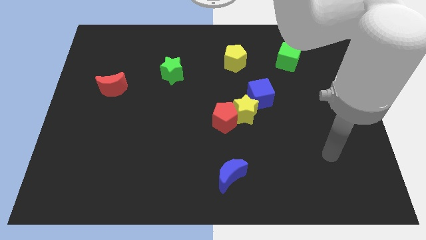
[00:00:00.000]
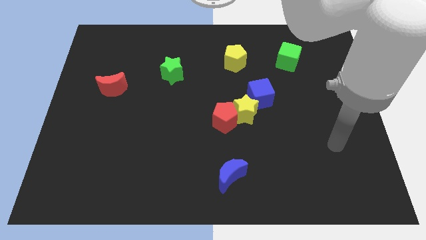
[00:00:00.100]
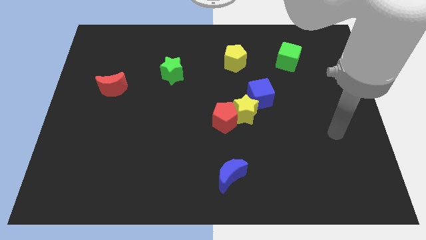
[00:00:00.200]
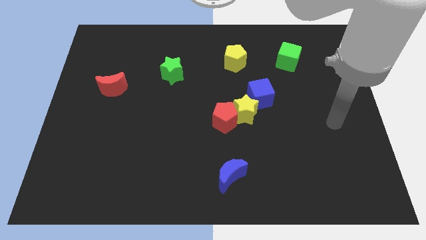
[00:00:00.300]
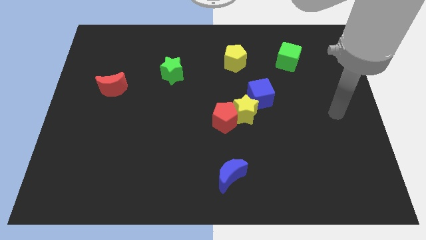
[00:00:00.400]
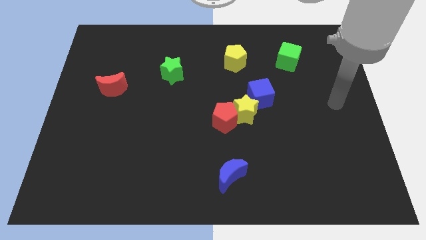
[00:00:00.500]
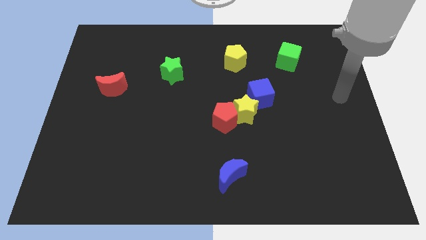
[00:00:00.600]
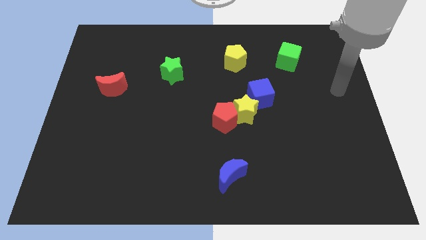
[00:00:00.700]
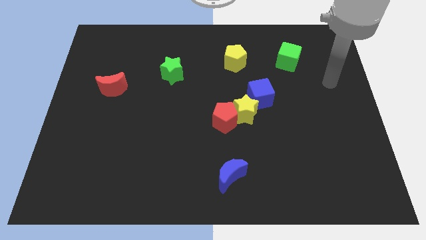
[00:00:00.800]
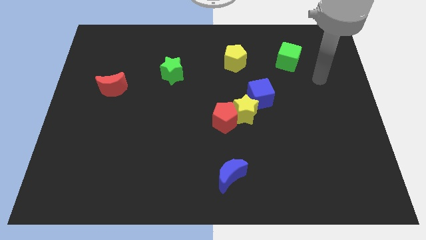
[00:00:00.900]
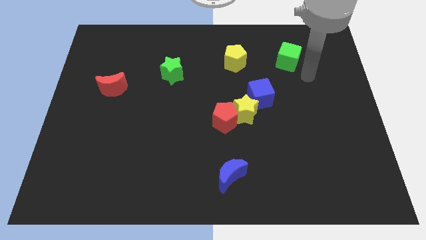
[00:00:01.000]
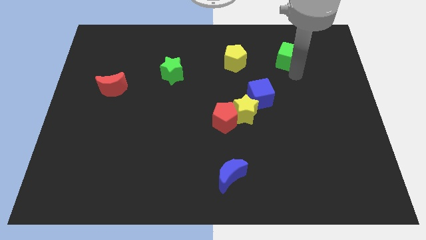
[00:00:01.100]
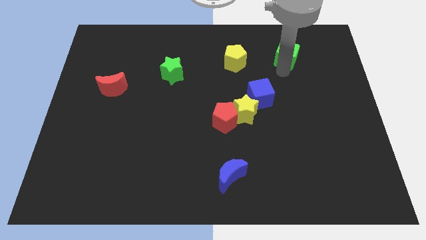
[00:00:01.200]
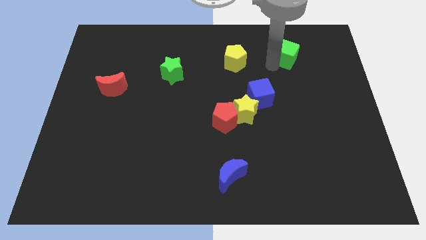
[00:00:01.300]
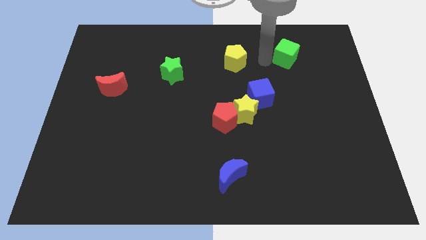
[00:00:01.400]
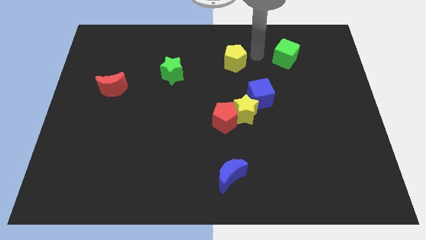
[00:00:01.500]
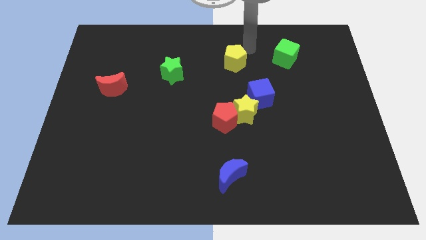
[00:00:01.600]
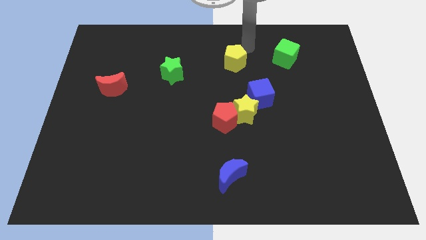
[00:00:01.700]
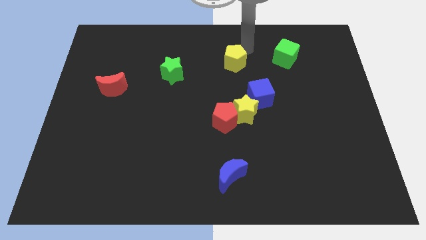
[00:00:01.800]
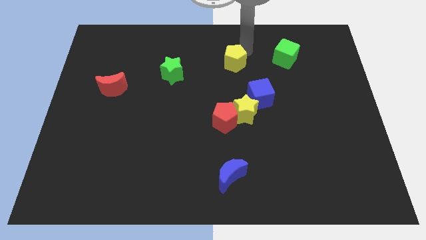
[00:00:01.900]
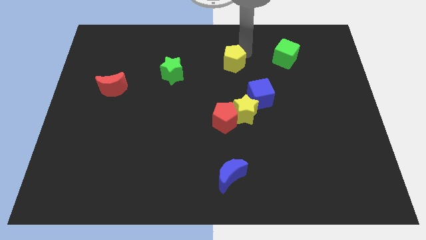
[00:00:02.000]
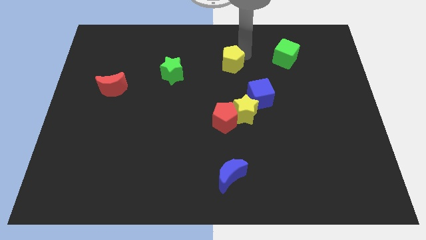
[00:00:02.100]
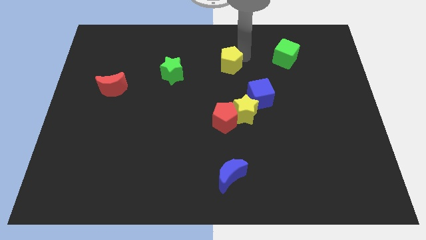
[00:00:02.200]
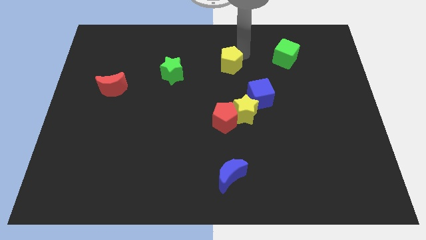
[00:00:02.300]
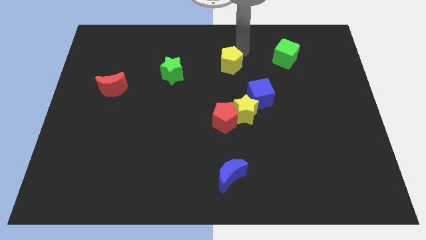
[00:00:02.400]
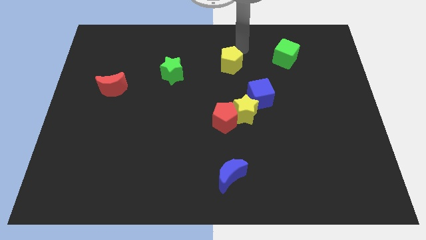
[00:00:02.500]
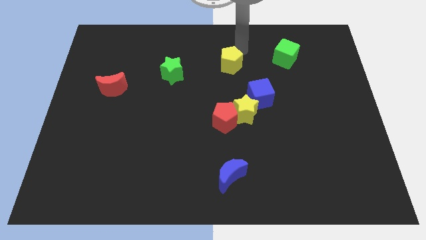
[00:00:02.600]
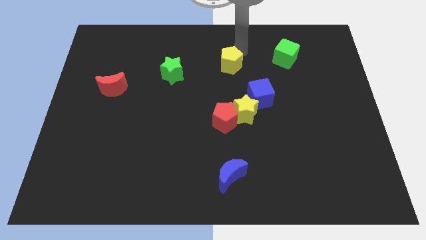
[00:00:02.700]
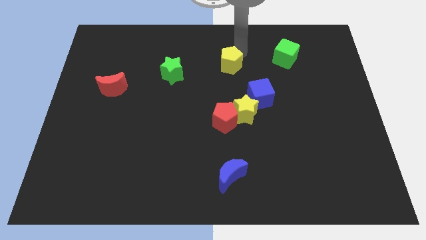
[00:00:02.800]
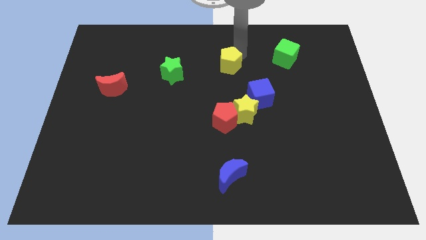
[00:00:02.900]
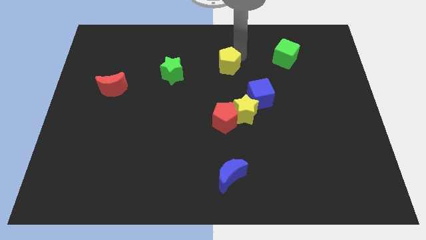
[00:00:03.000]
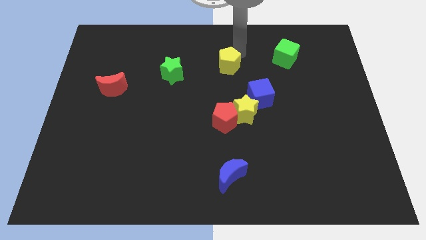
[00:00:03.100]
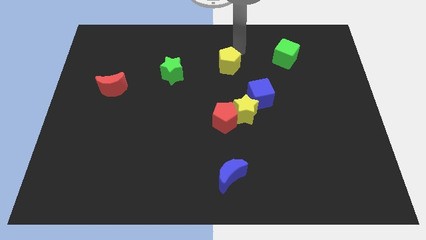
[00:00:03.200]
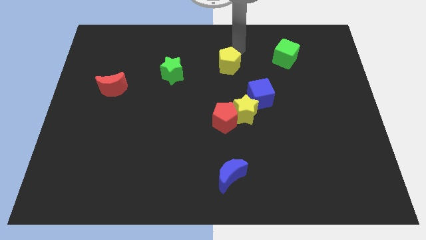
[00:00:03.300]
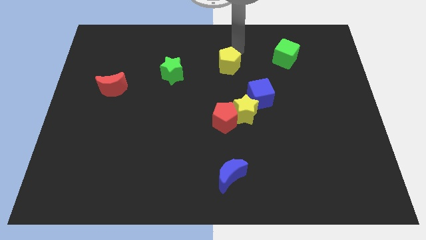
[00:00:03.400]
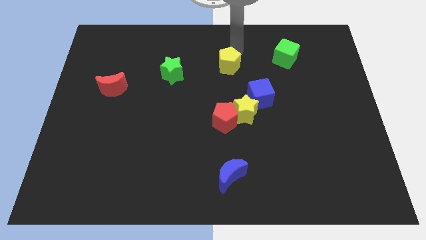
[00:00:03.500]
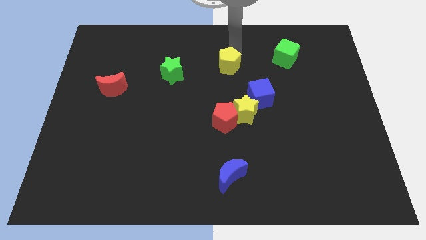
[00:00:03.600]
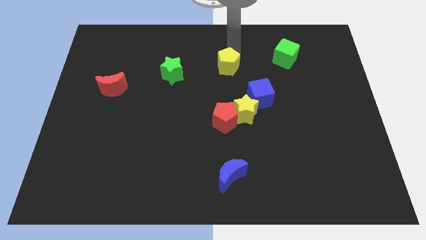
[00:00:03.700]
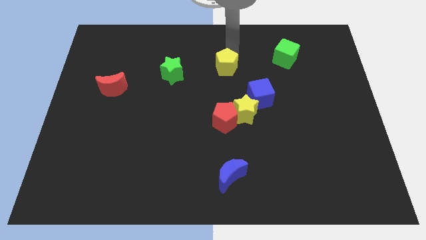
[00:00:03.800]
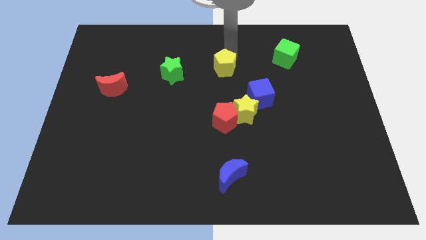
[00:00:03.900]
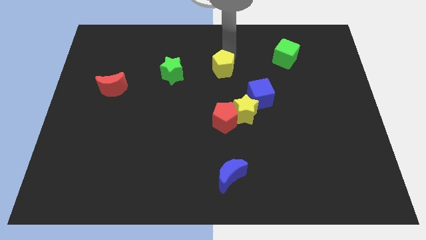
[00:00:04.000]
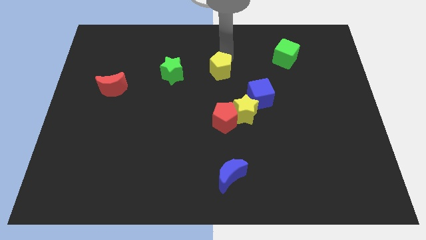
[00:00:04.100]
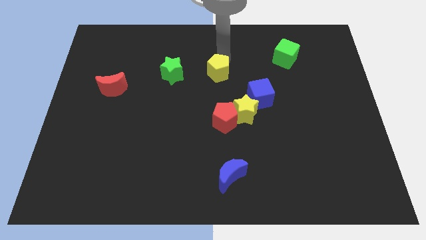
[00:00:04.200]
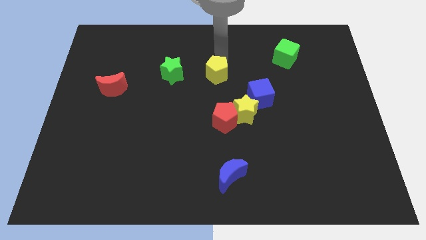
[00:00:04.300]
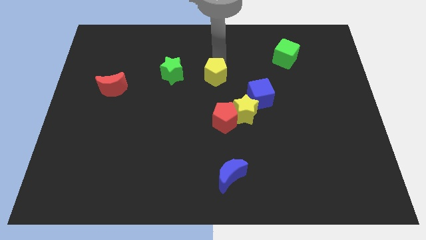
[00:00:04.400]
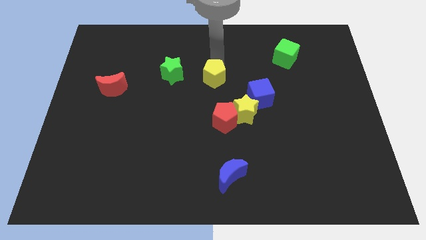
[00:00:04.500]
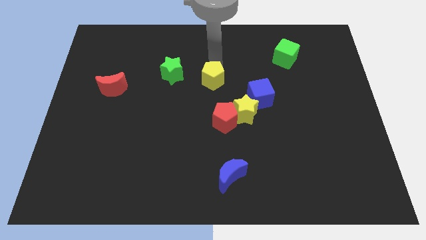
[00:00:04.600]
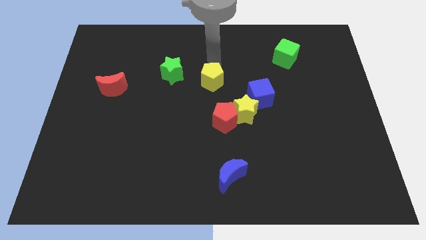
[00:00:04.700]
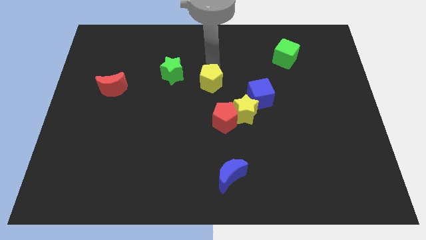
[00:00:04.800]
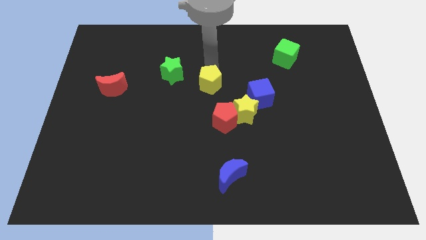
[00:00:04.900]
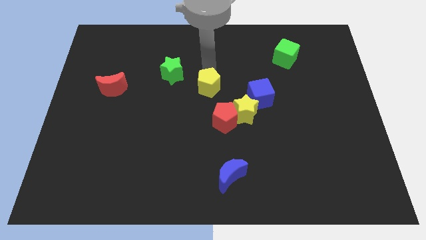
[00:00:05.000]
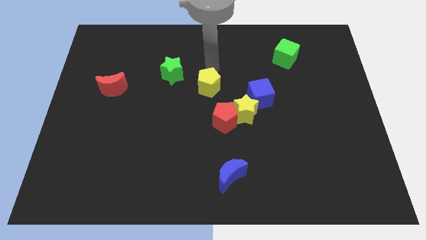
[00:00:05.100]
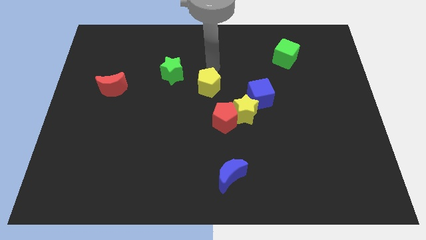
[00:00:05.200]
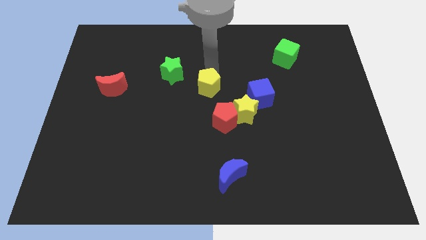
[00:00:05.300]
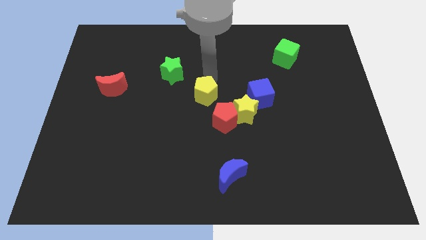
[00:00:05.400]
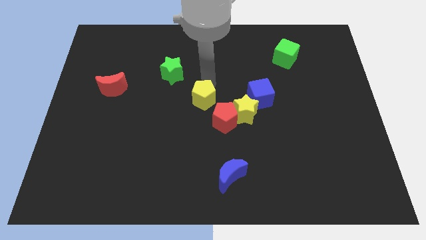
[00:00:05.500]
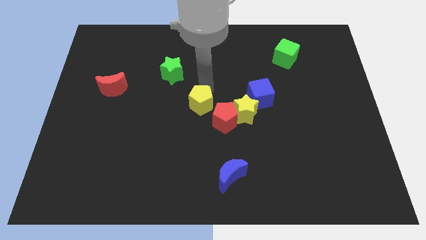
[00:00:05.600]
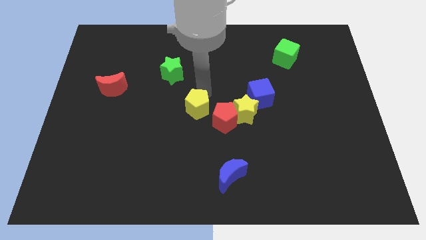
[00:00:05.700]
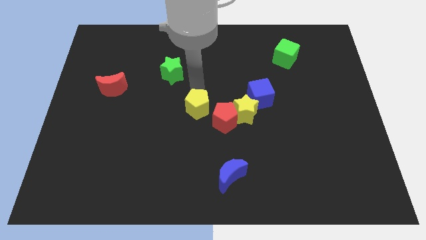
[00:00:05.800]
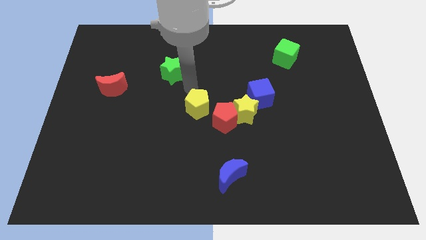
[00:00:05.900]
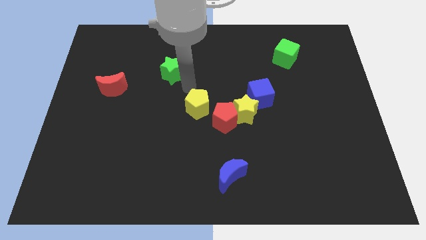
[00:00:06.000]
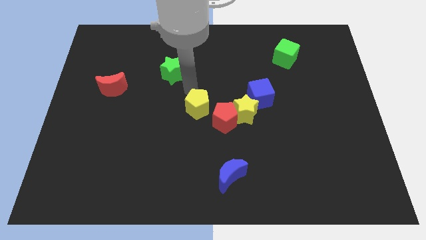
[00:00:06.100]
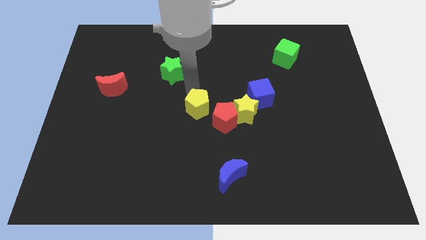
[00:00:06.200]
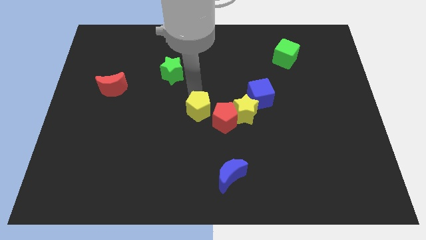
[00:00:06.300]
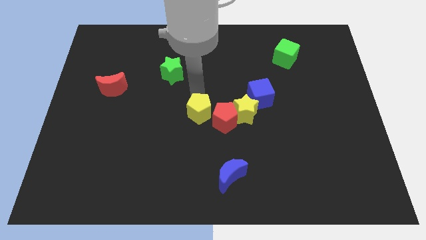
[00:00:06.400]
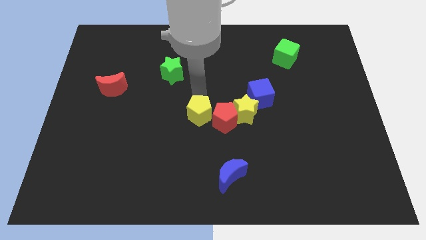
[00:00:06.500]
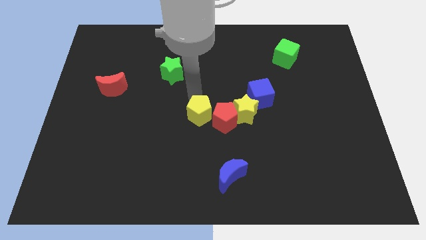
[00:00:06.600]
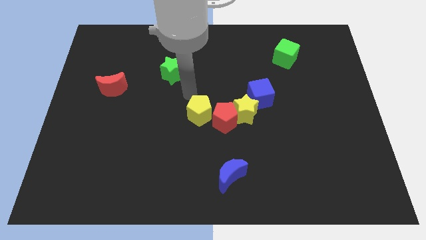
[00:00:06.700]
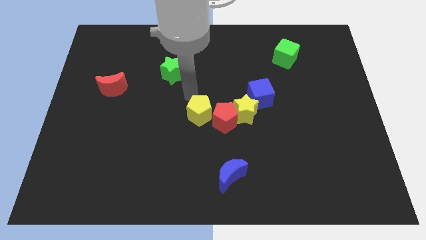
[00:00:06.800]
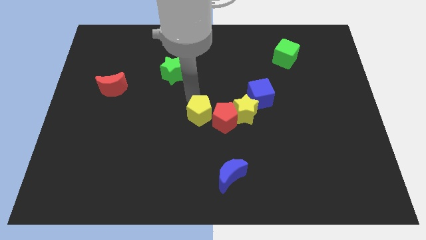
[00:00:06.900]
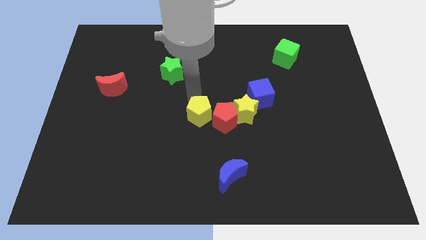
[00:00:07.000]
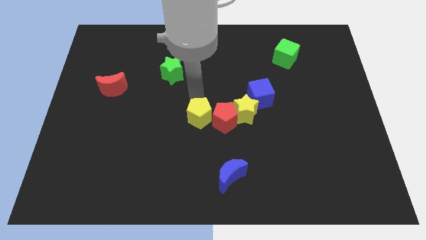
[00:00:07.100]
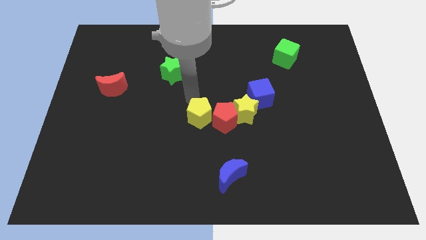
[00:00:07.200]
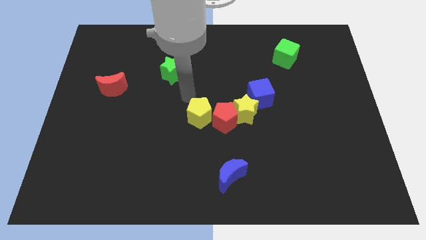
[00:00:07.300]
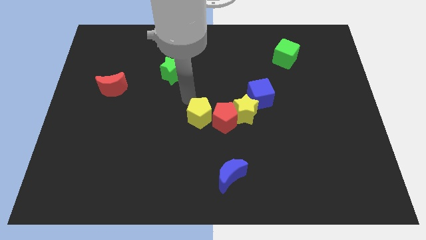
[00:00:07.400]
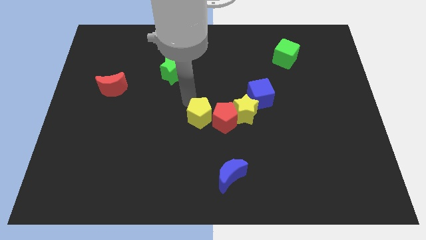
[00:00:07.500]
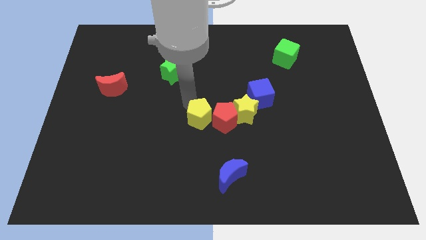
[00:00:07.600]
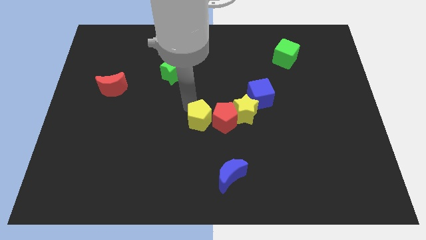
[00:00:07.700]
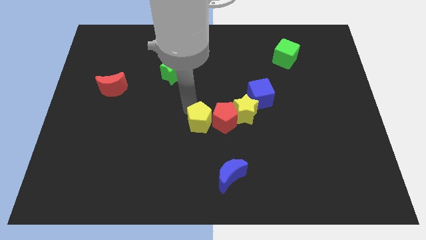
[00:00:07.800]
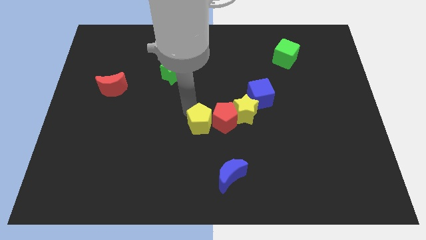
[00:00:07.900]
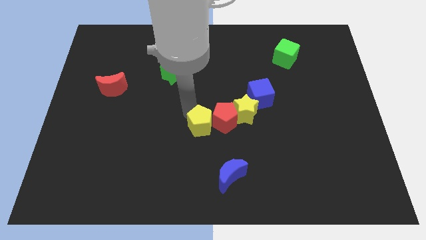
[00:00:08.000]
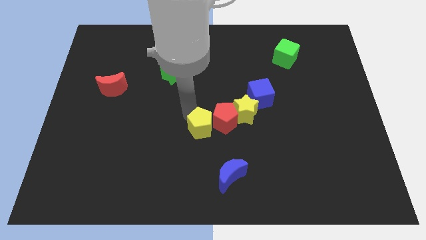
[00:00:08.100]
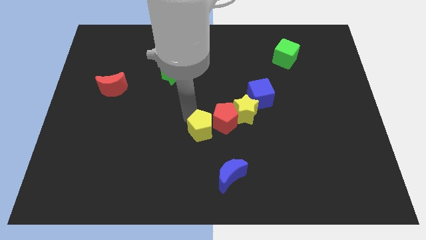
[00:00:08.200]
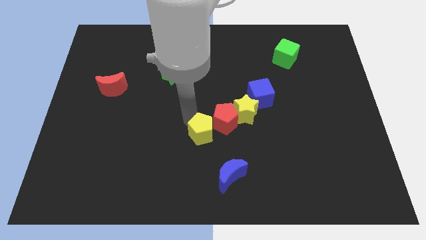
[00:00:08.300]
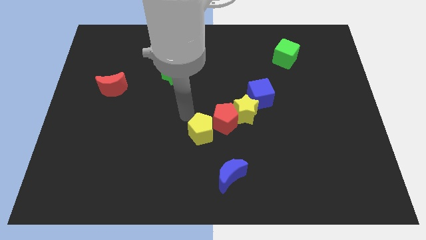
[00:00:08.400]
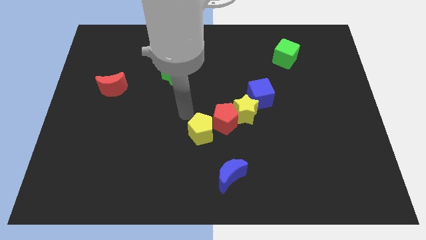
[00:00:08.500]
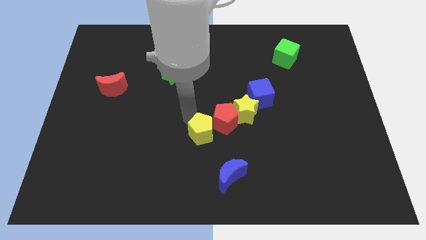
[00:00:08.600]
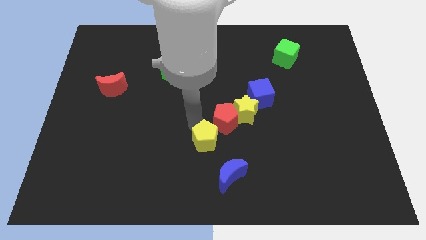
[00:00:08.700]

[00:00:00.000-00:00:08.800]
move the yellow pentagon below the red pentagon
